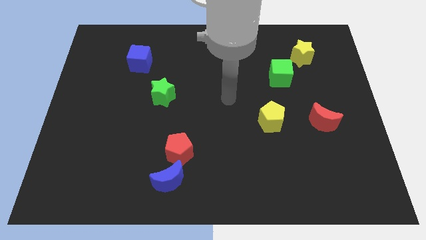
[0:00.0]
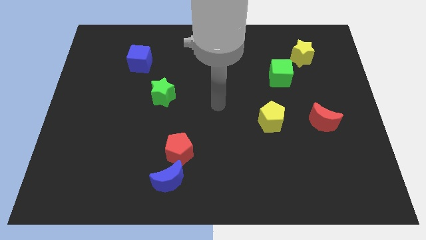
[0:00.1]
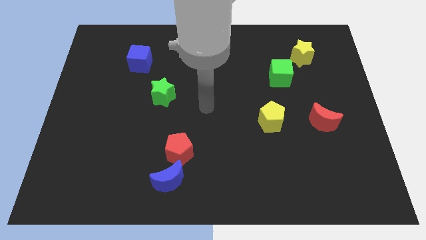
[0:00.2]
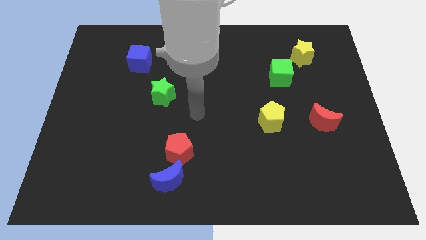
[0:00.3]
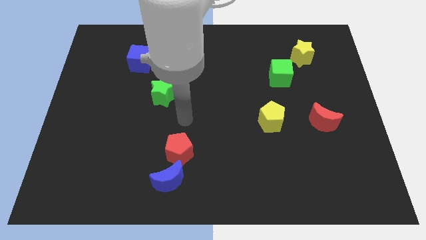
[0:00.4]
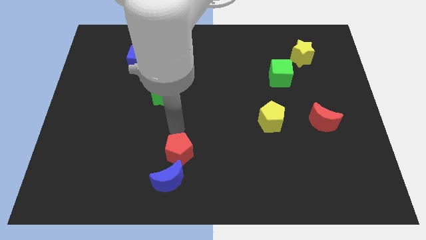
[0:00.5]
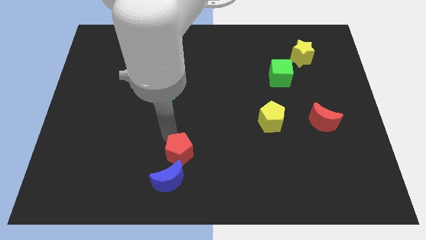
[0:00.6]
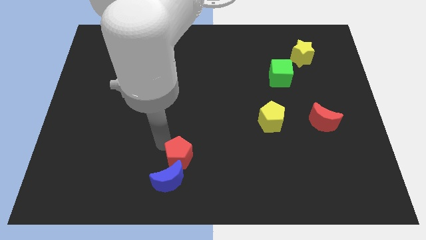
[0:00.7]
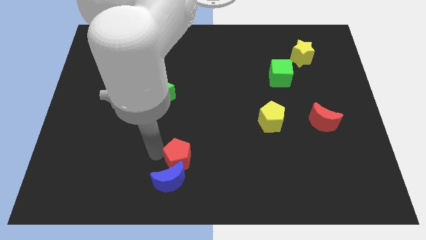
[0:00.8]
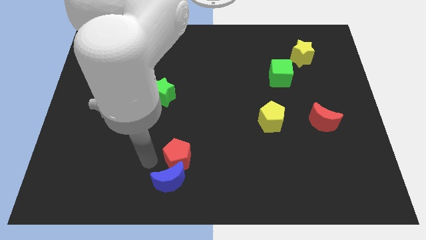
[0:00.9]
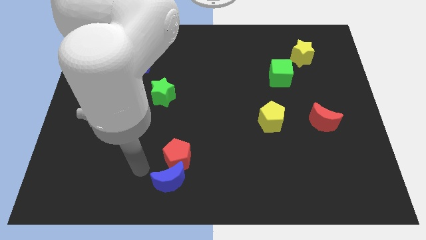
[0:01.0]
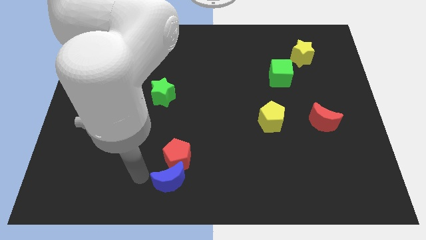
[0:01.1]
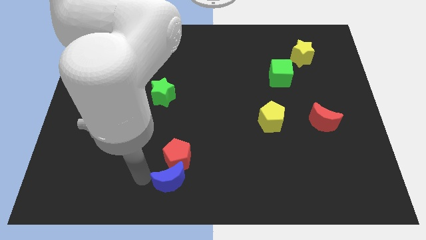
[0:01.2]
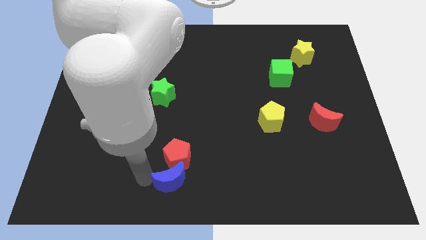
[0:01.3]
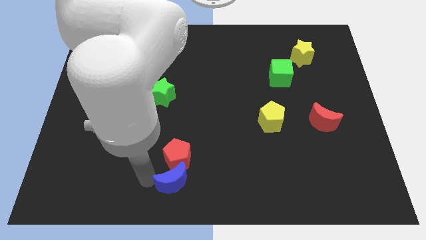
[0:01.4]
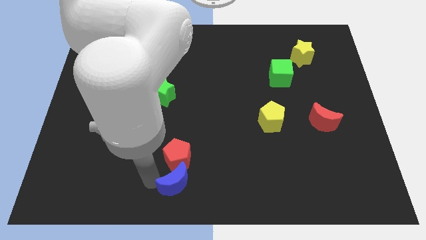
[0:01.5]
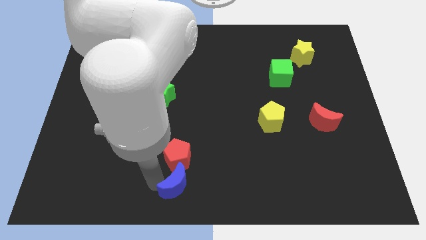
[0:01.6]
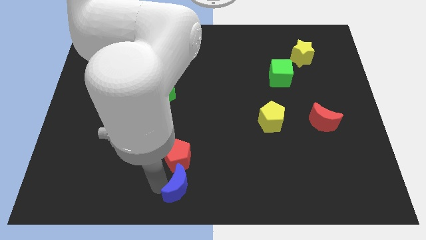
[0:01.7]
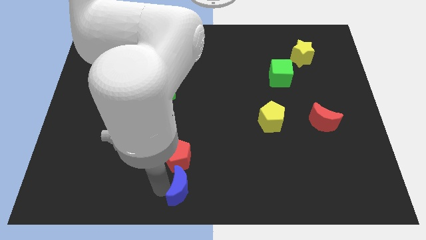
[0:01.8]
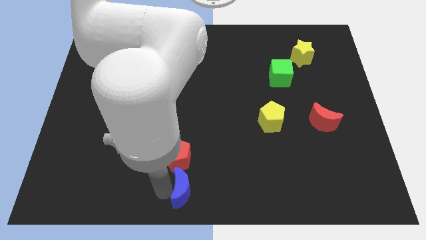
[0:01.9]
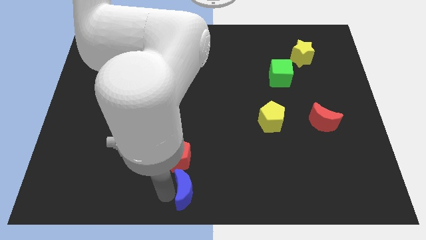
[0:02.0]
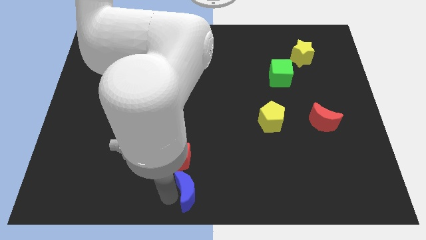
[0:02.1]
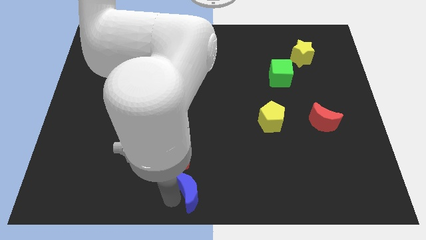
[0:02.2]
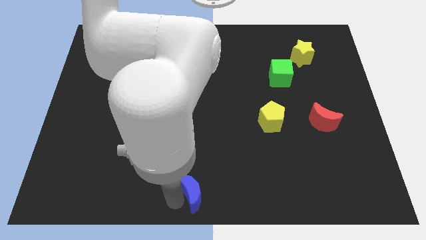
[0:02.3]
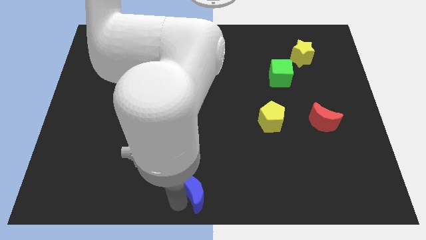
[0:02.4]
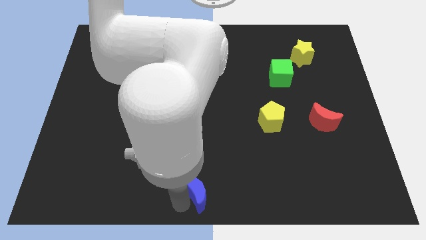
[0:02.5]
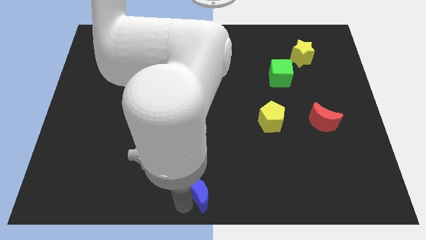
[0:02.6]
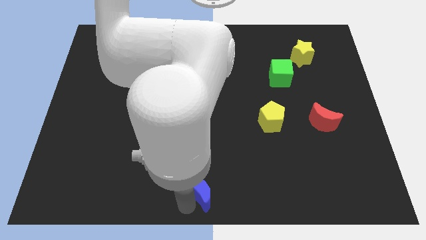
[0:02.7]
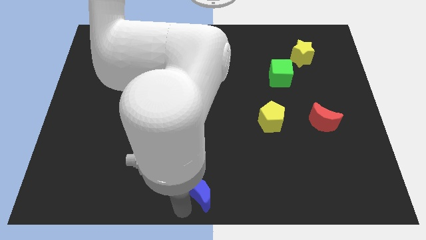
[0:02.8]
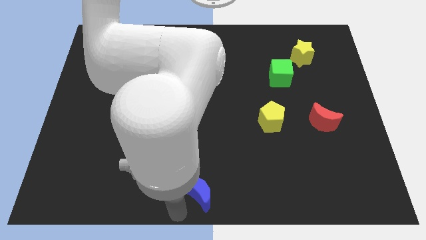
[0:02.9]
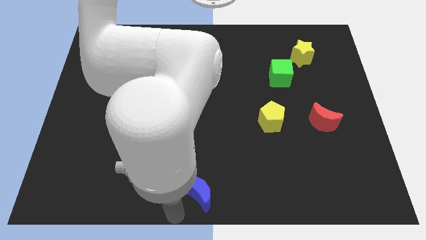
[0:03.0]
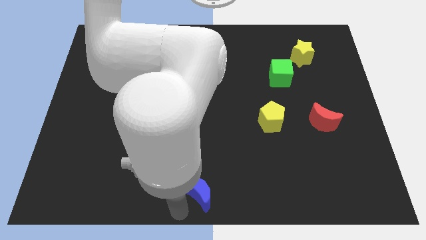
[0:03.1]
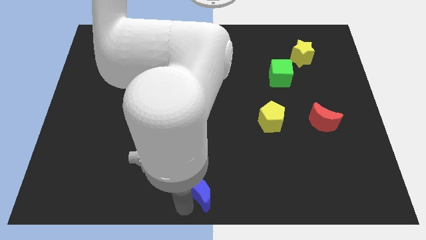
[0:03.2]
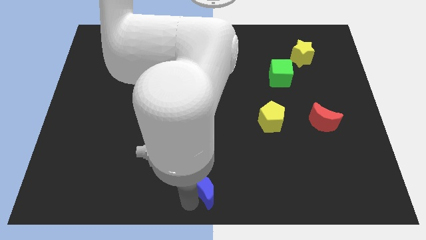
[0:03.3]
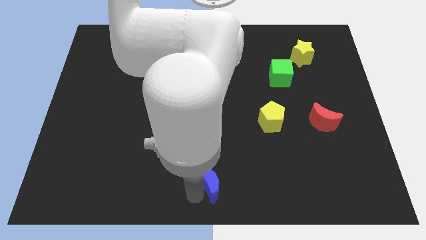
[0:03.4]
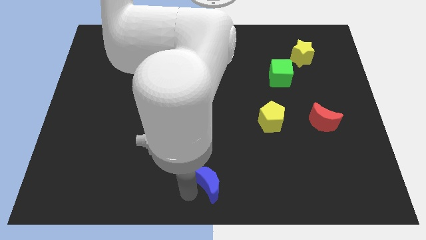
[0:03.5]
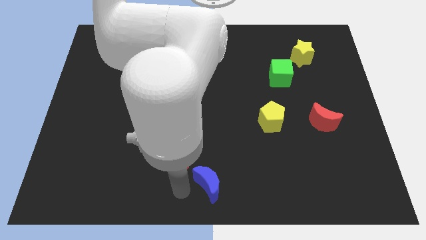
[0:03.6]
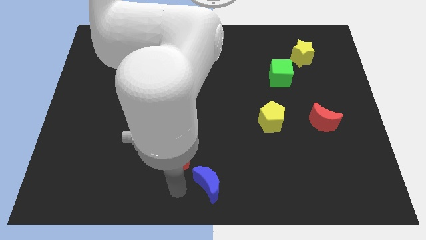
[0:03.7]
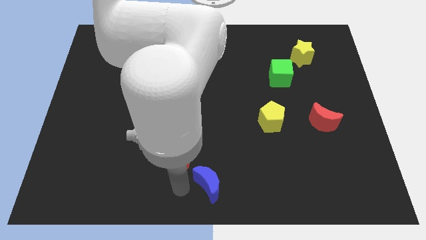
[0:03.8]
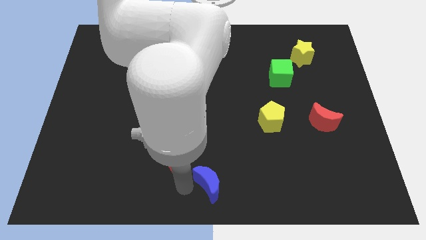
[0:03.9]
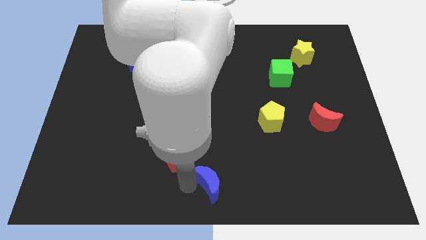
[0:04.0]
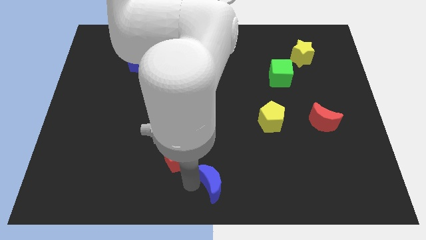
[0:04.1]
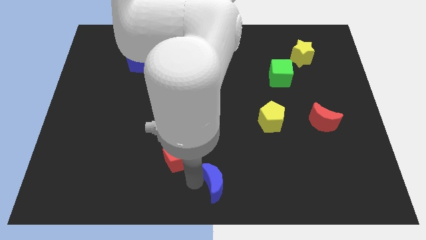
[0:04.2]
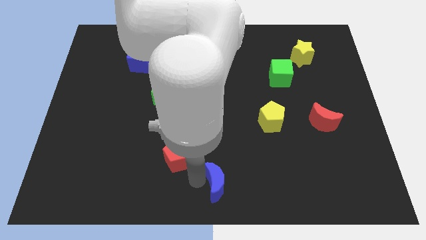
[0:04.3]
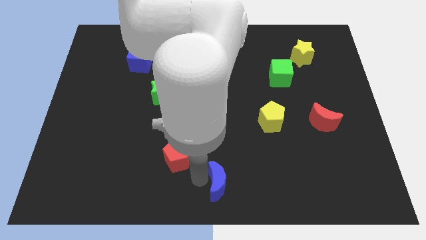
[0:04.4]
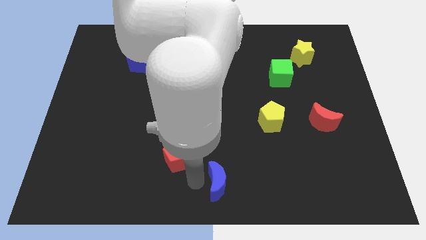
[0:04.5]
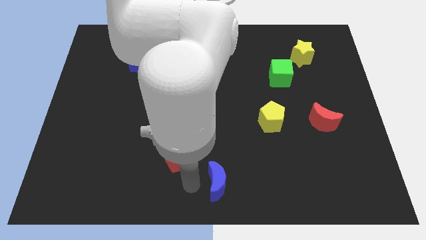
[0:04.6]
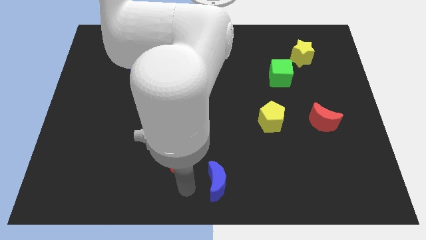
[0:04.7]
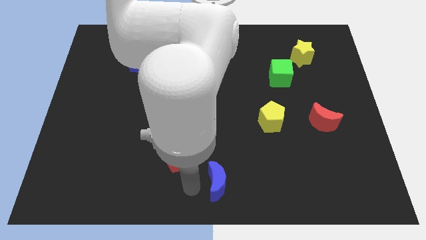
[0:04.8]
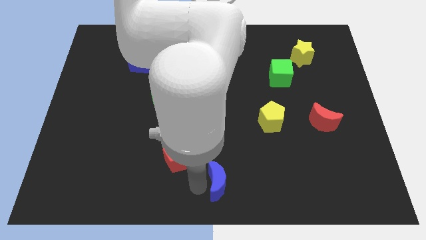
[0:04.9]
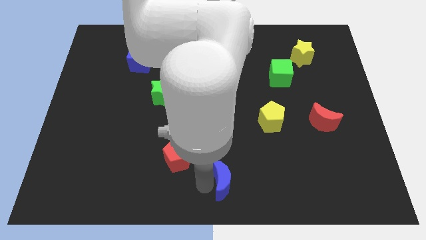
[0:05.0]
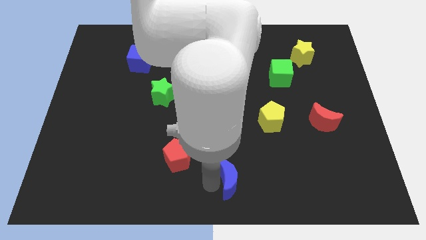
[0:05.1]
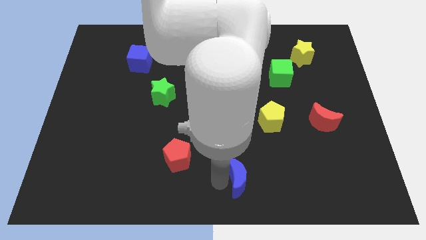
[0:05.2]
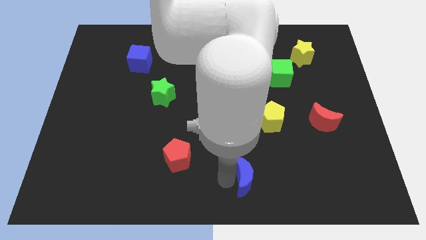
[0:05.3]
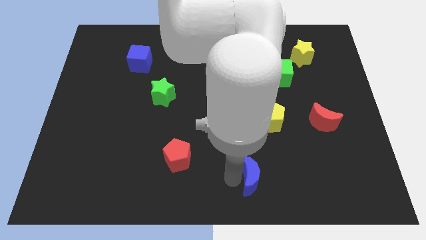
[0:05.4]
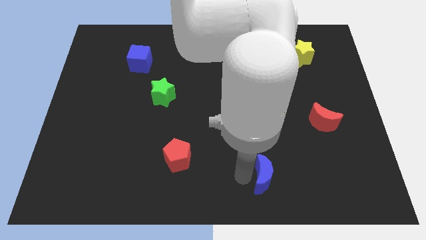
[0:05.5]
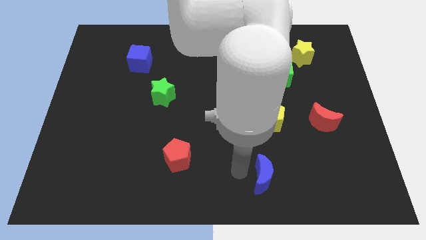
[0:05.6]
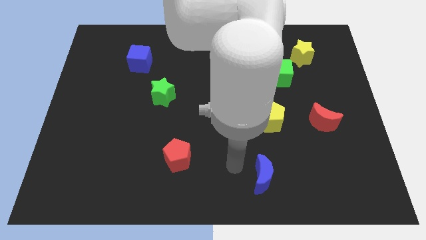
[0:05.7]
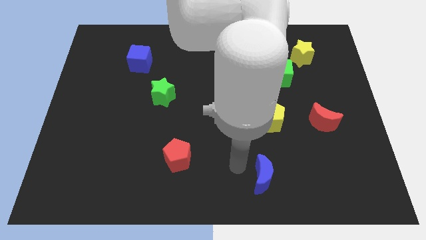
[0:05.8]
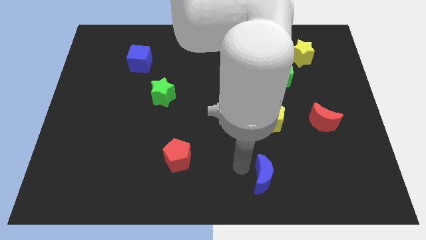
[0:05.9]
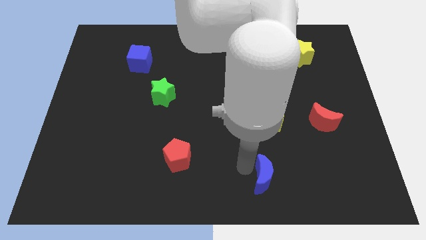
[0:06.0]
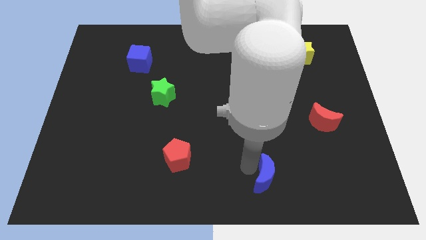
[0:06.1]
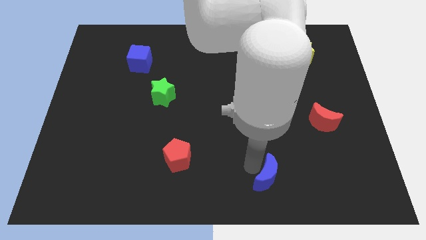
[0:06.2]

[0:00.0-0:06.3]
move the blue moon to the right

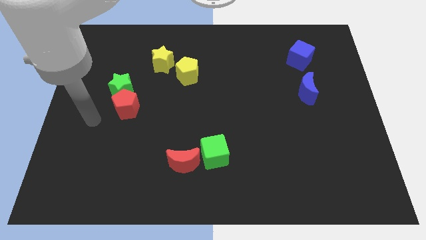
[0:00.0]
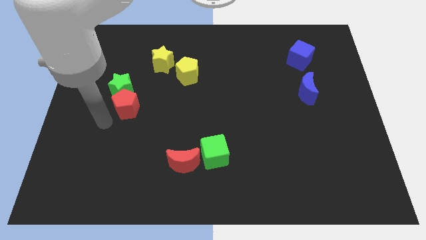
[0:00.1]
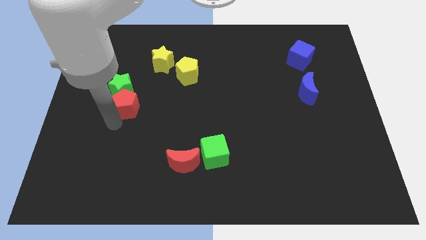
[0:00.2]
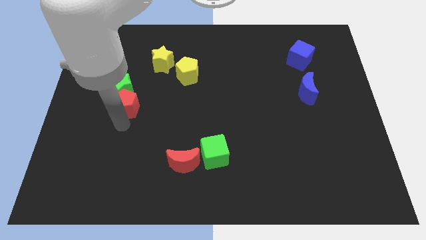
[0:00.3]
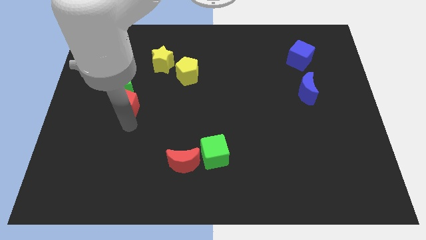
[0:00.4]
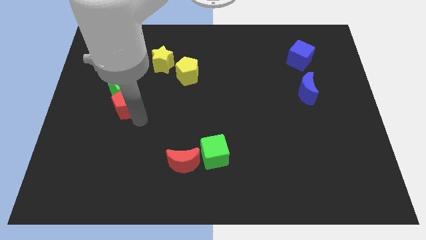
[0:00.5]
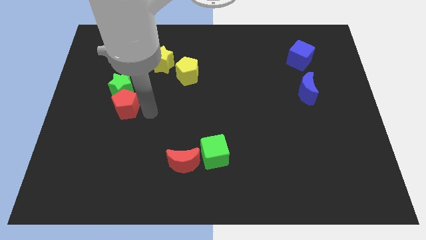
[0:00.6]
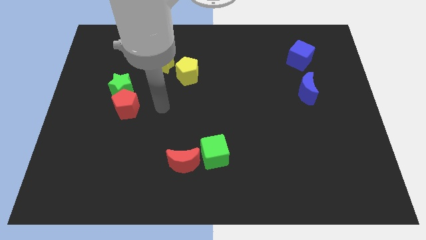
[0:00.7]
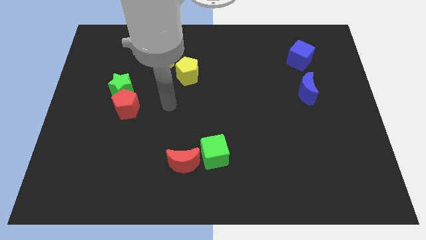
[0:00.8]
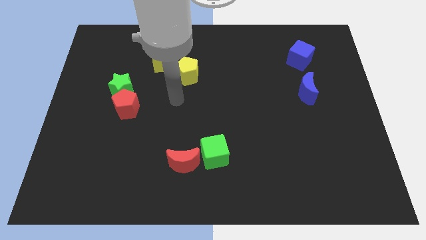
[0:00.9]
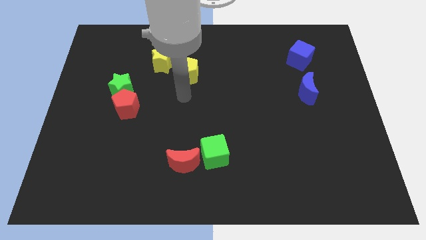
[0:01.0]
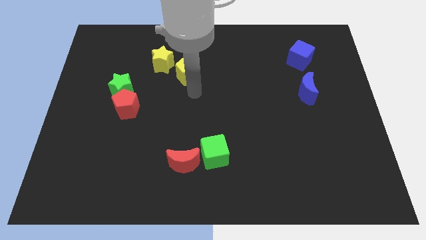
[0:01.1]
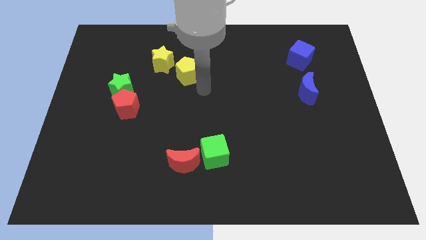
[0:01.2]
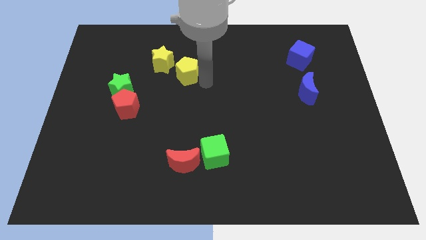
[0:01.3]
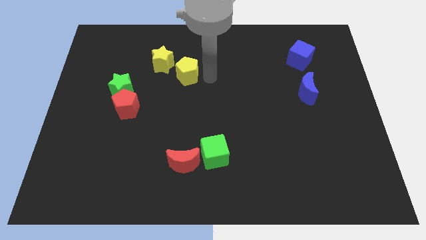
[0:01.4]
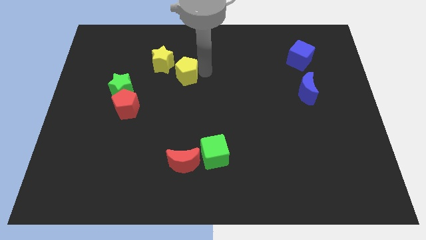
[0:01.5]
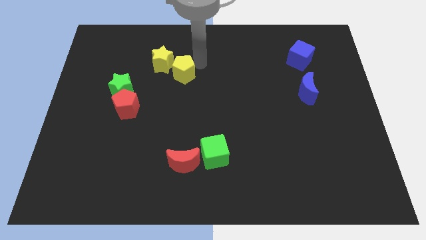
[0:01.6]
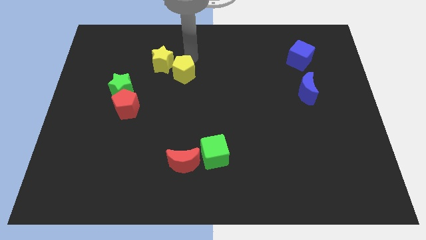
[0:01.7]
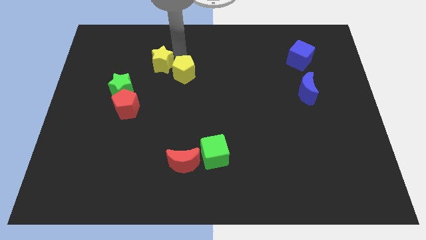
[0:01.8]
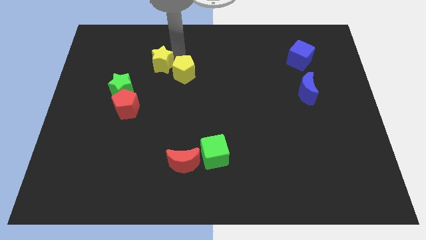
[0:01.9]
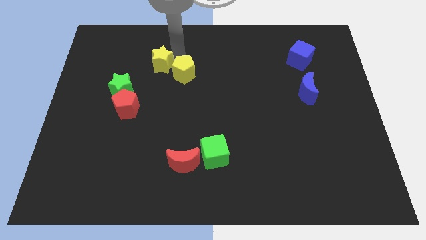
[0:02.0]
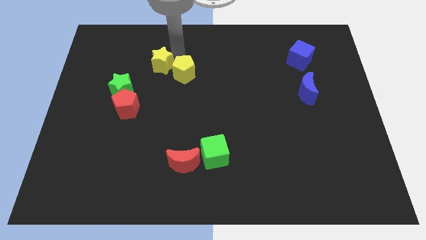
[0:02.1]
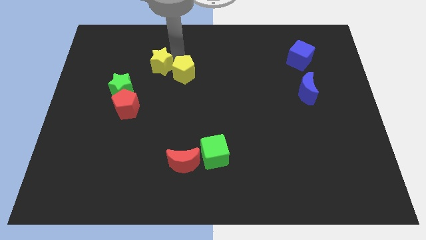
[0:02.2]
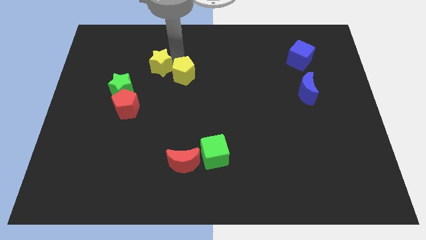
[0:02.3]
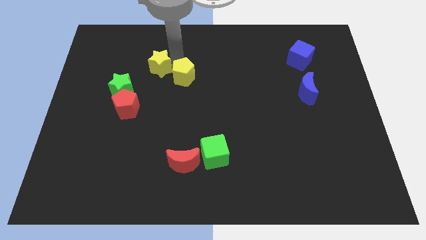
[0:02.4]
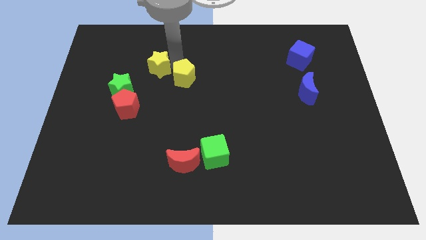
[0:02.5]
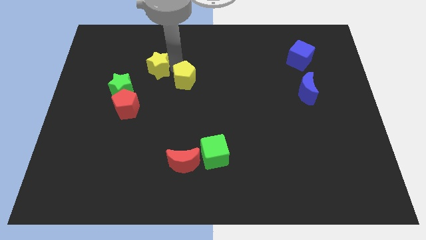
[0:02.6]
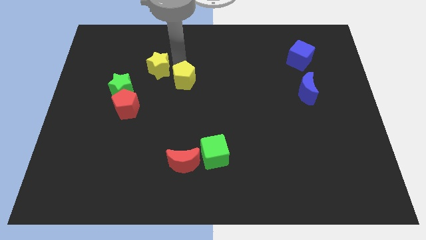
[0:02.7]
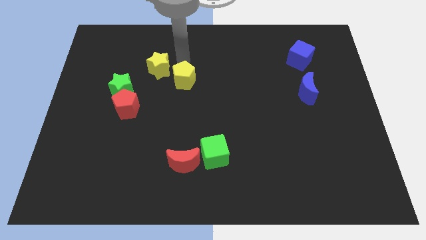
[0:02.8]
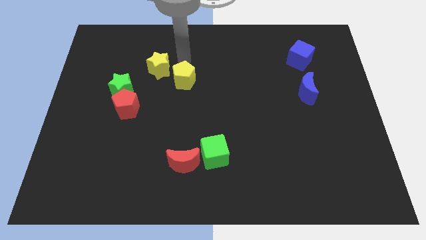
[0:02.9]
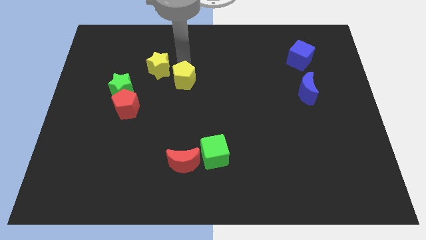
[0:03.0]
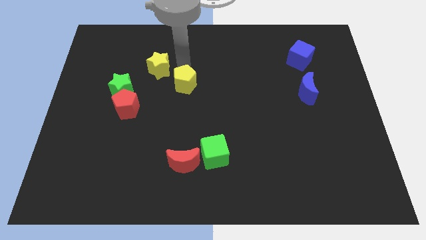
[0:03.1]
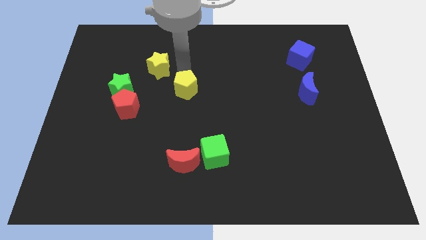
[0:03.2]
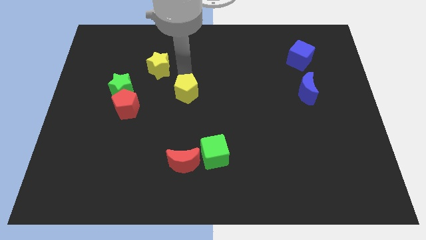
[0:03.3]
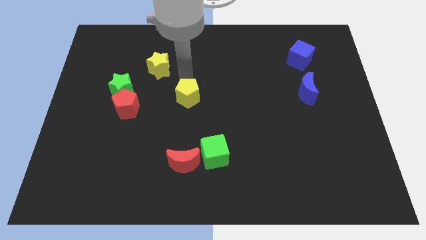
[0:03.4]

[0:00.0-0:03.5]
slightly slide the yellow pentagon downwards
